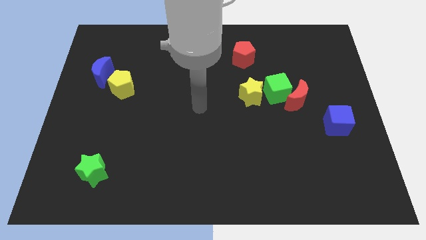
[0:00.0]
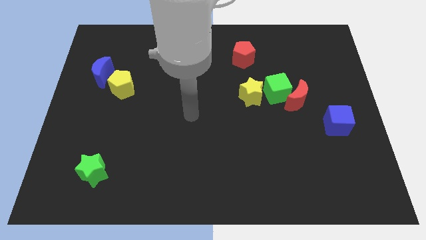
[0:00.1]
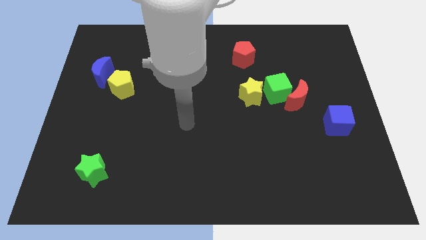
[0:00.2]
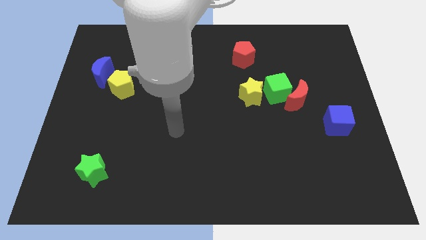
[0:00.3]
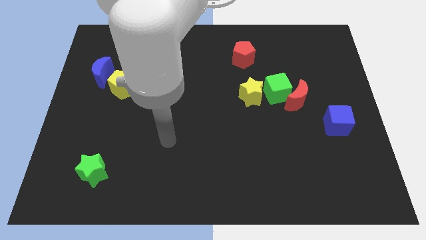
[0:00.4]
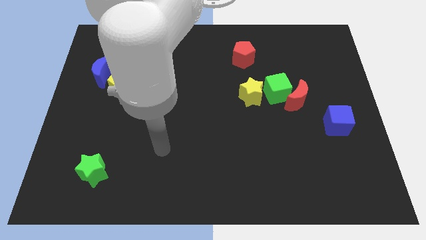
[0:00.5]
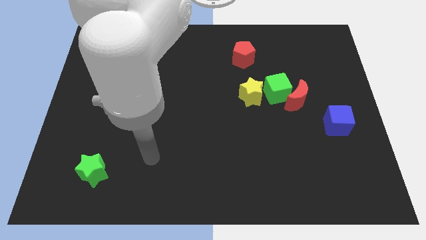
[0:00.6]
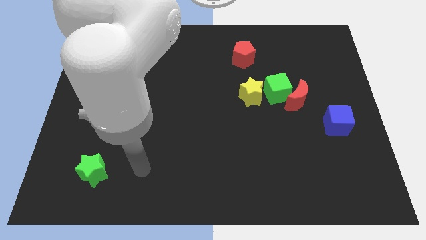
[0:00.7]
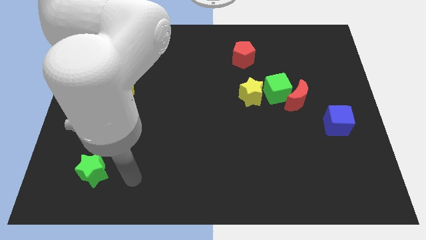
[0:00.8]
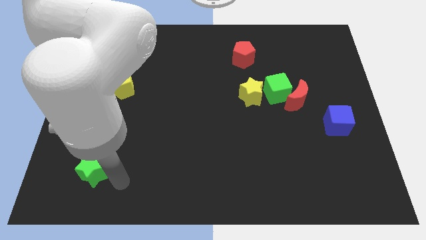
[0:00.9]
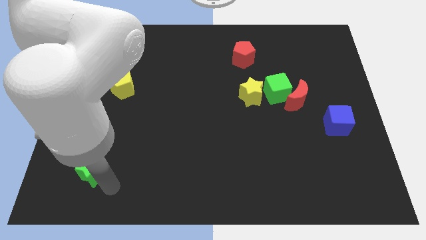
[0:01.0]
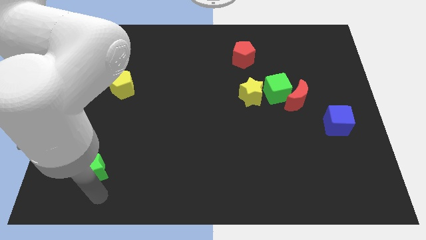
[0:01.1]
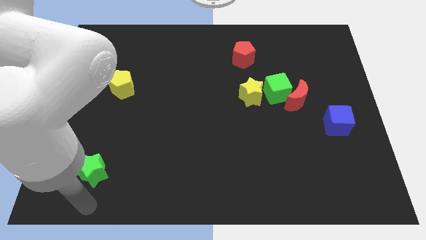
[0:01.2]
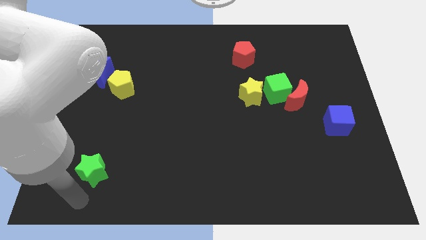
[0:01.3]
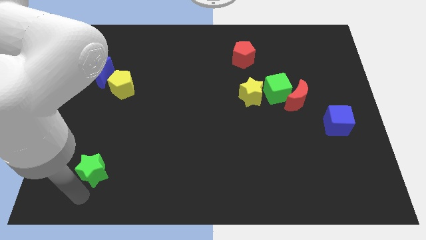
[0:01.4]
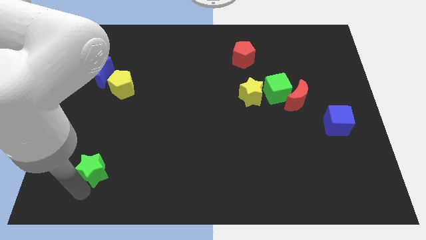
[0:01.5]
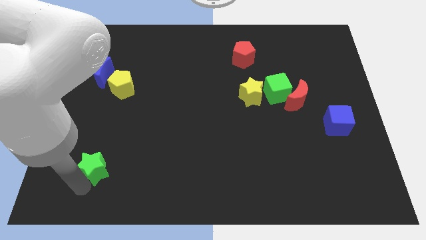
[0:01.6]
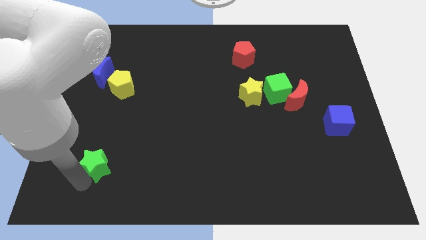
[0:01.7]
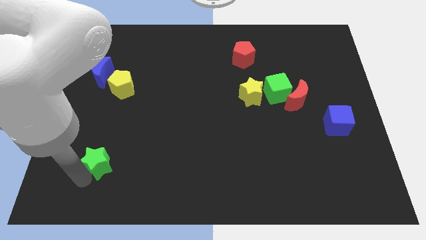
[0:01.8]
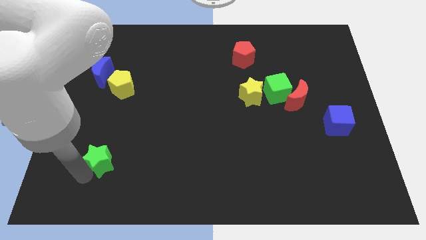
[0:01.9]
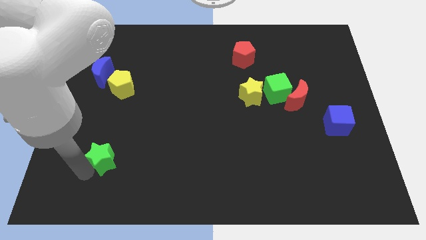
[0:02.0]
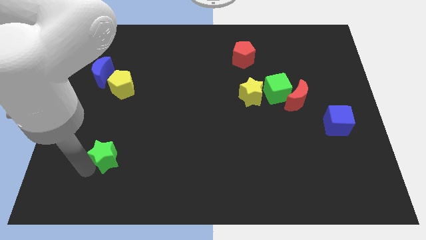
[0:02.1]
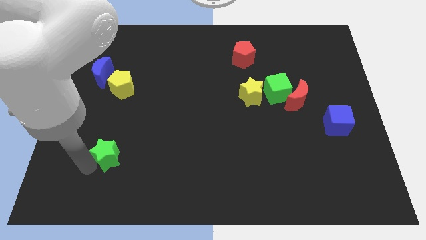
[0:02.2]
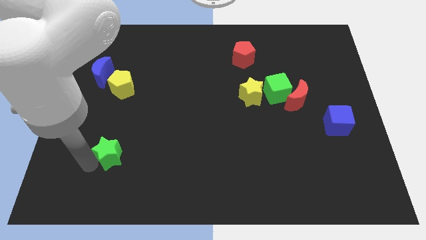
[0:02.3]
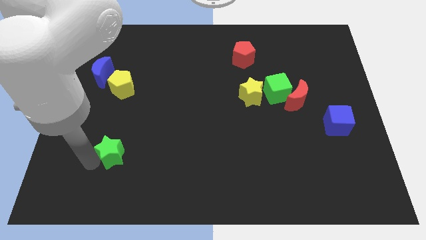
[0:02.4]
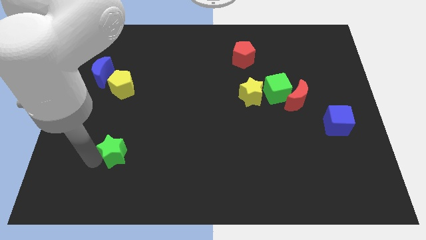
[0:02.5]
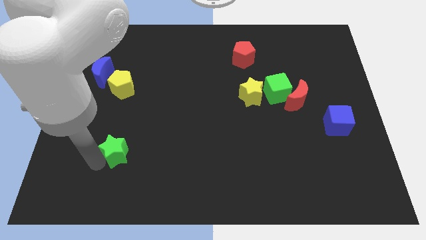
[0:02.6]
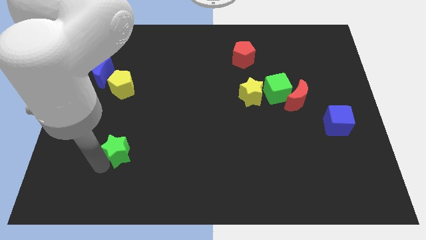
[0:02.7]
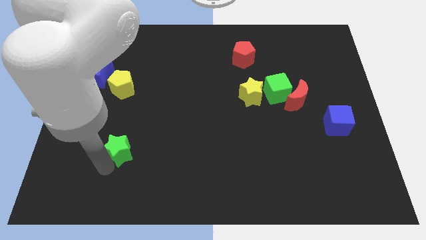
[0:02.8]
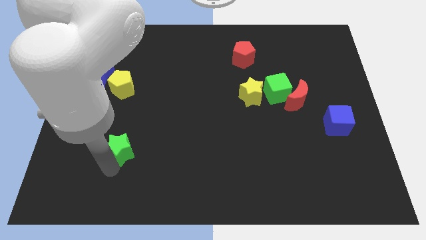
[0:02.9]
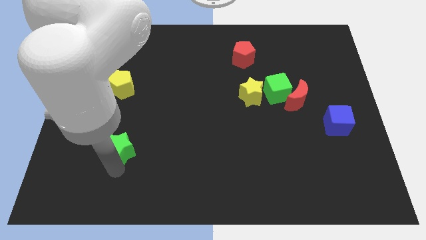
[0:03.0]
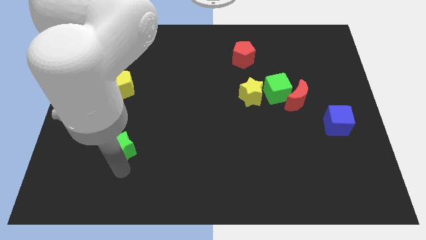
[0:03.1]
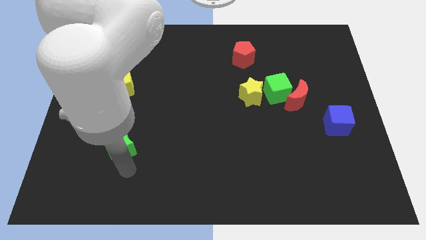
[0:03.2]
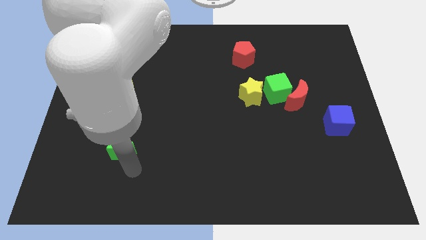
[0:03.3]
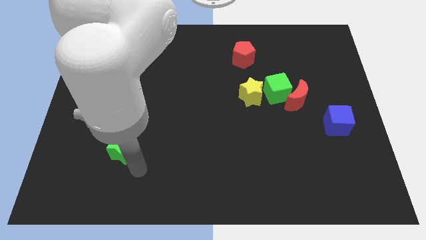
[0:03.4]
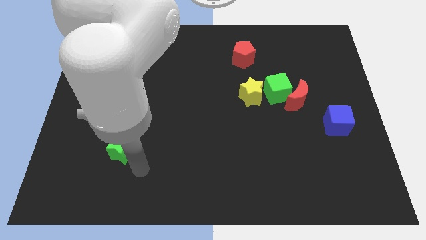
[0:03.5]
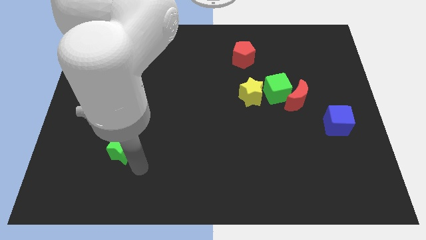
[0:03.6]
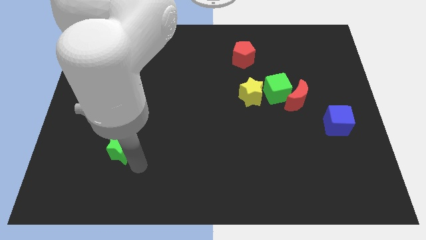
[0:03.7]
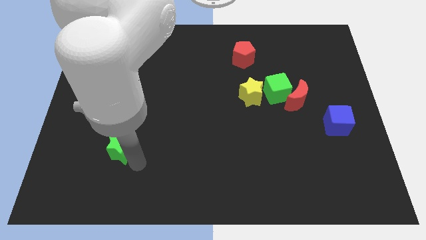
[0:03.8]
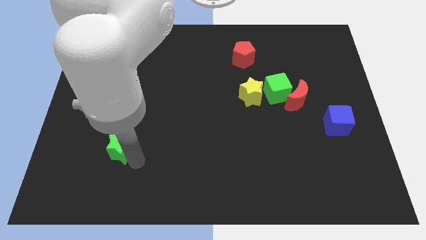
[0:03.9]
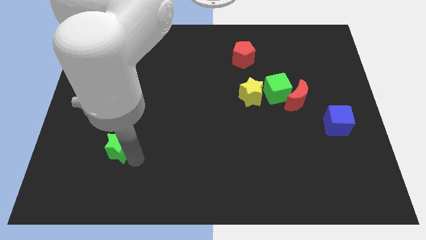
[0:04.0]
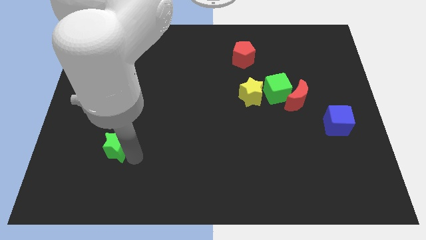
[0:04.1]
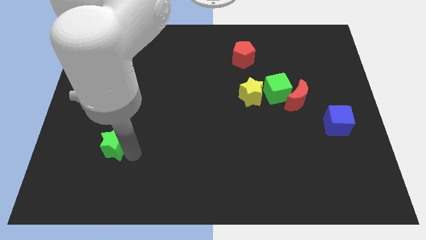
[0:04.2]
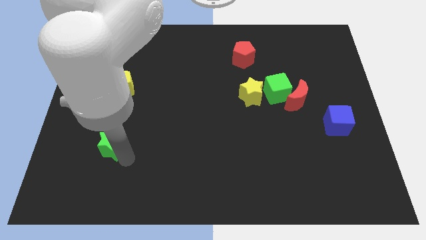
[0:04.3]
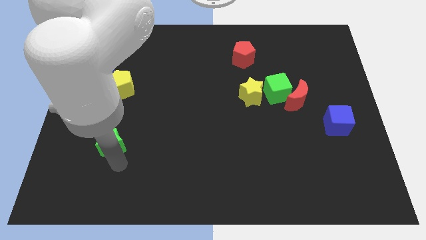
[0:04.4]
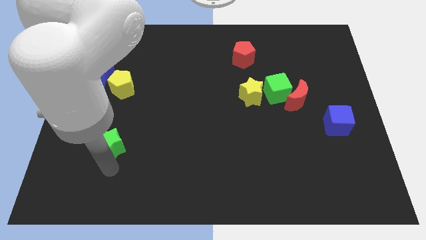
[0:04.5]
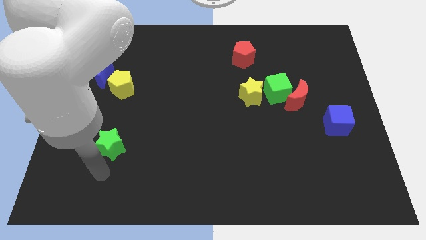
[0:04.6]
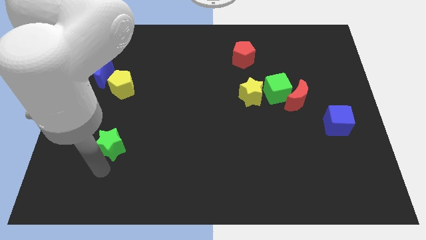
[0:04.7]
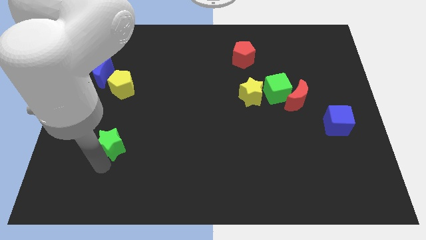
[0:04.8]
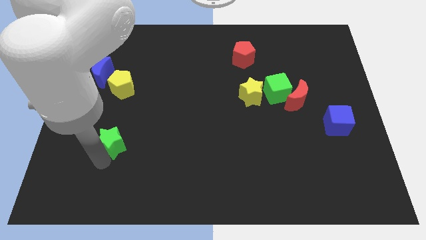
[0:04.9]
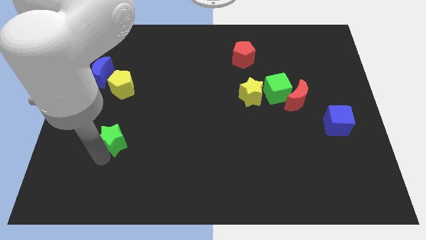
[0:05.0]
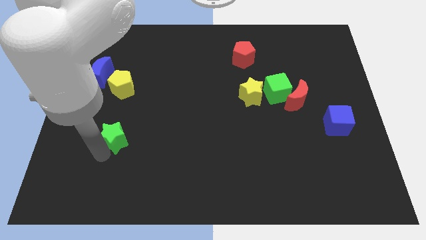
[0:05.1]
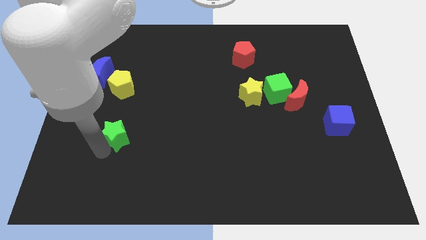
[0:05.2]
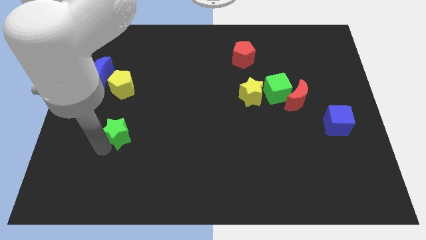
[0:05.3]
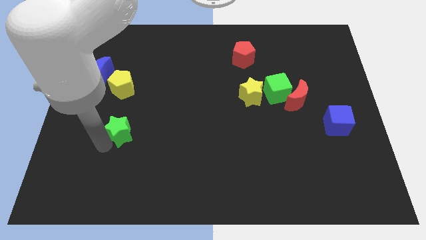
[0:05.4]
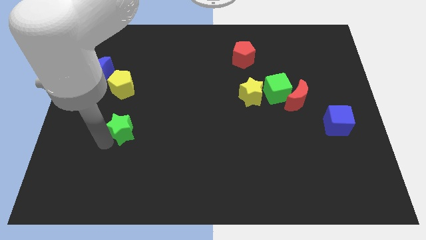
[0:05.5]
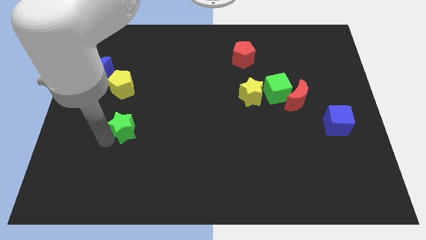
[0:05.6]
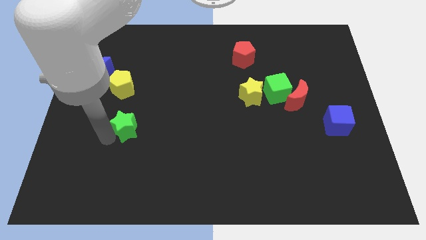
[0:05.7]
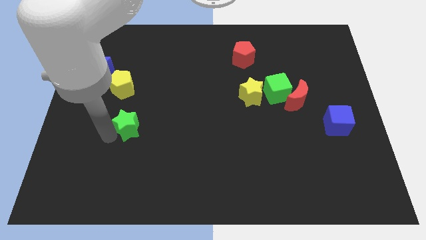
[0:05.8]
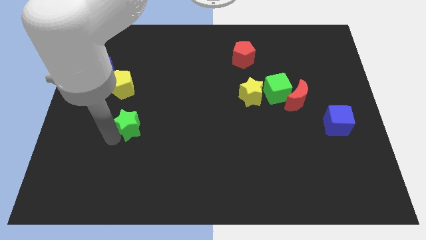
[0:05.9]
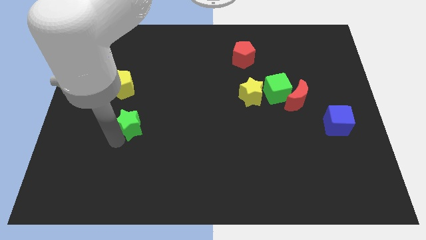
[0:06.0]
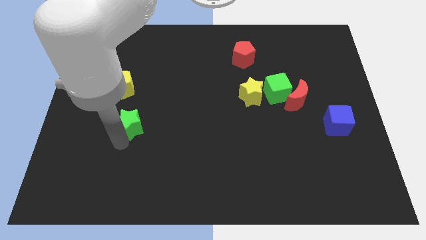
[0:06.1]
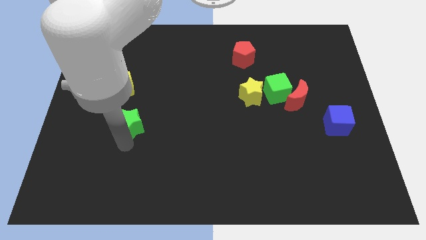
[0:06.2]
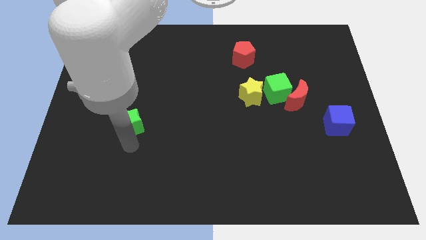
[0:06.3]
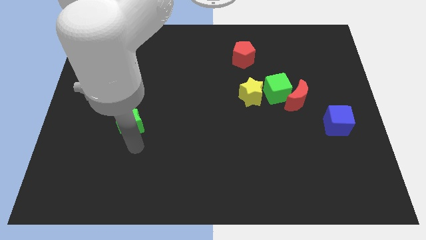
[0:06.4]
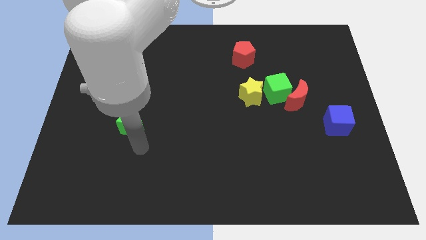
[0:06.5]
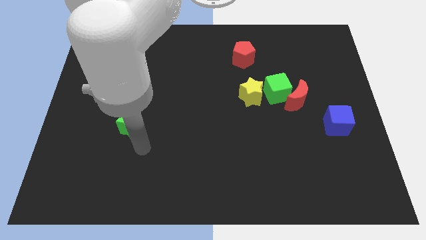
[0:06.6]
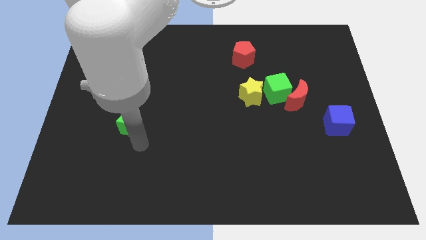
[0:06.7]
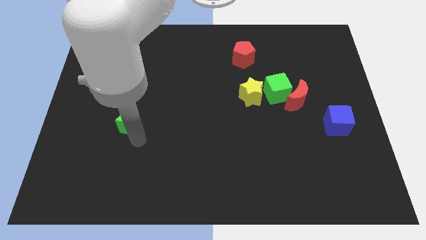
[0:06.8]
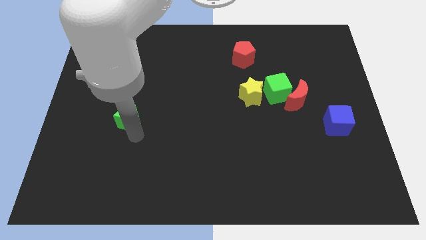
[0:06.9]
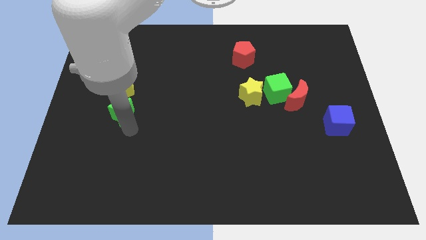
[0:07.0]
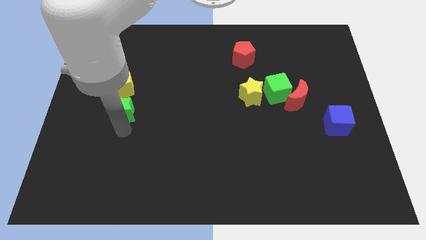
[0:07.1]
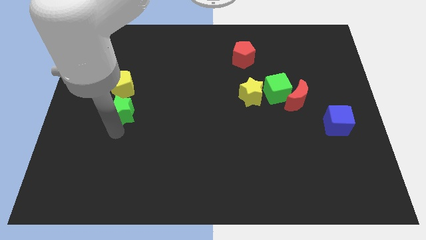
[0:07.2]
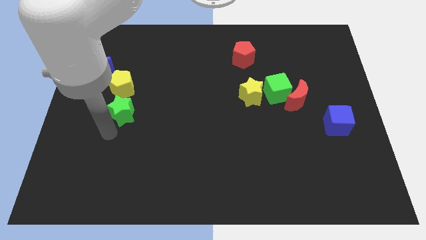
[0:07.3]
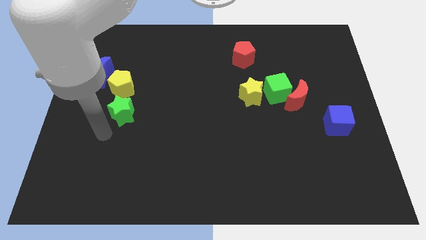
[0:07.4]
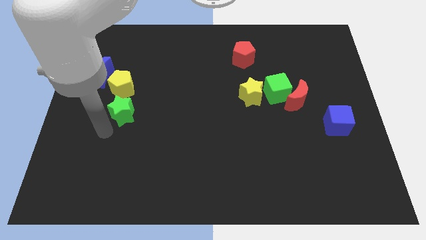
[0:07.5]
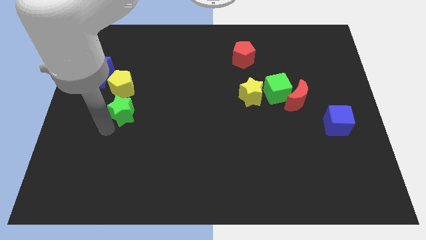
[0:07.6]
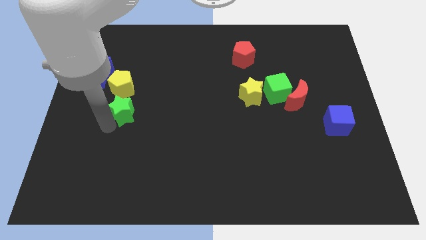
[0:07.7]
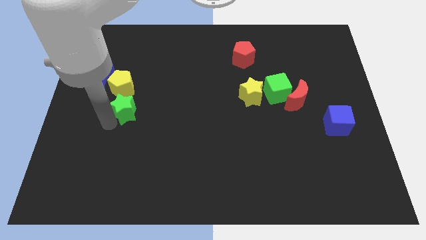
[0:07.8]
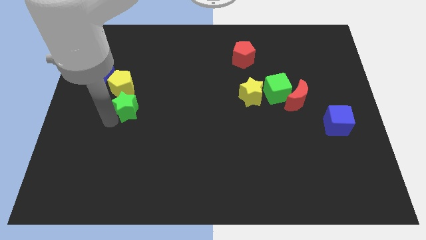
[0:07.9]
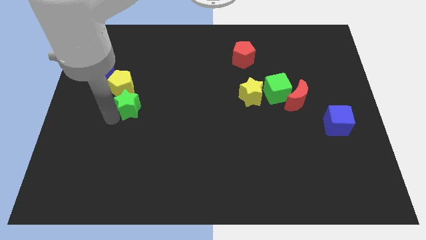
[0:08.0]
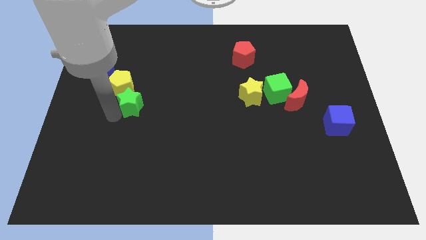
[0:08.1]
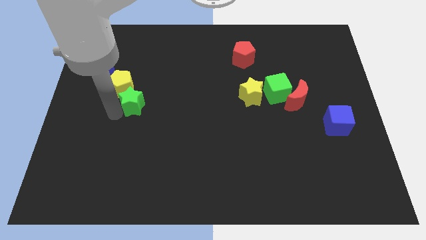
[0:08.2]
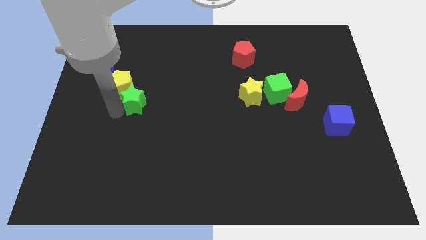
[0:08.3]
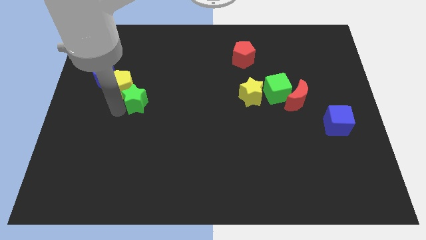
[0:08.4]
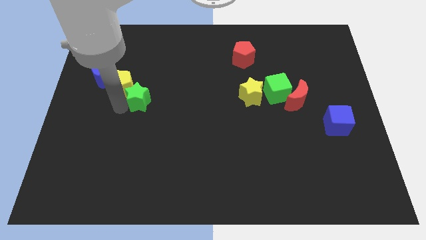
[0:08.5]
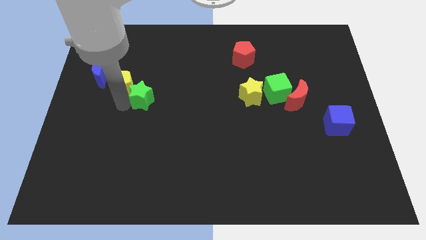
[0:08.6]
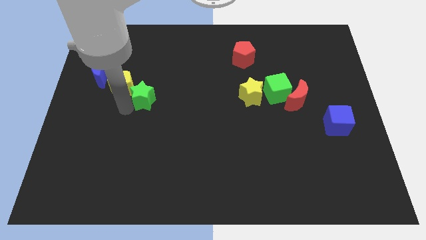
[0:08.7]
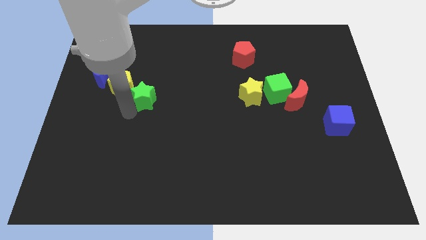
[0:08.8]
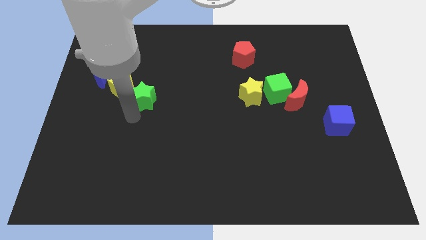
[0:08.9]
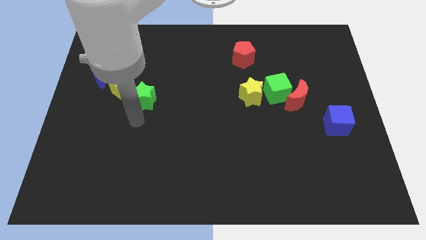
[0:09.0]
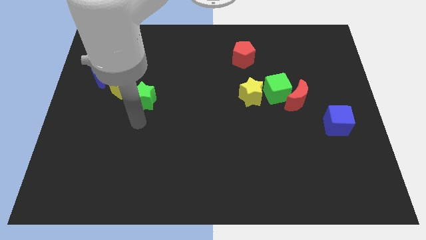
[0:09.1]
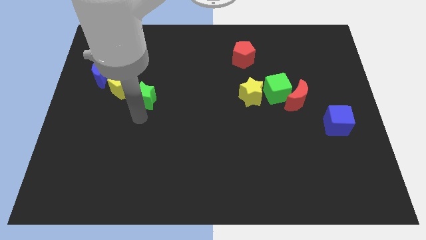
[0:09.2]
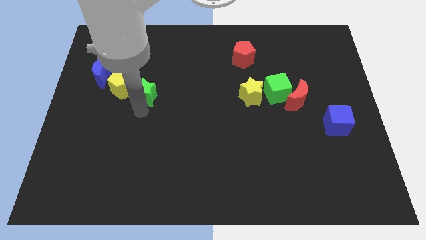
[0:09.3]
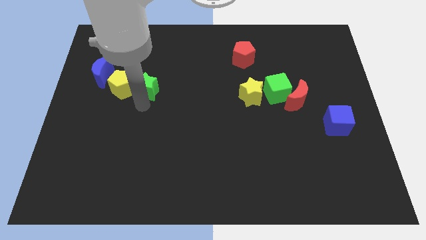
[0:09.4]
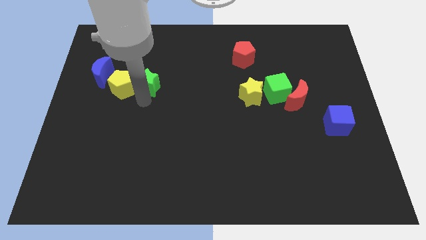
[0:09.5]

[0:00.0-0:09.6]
slide the green star up
